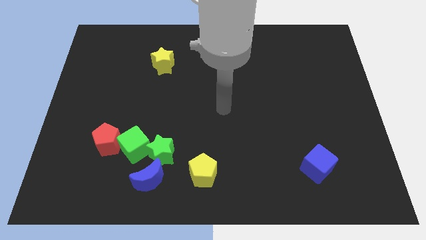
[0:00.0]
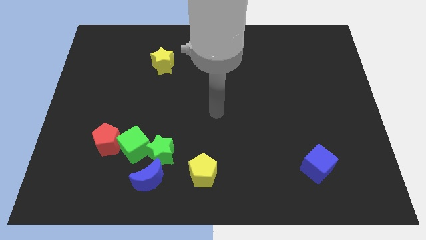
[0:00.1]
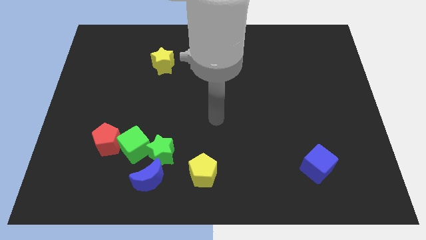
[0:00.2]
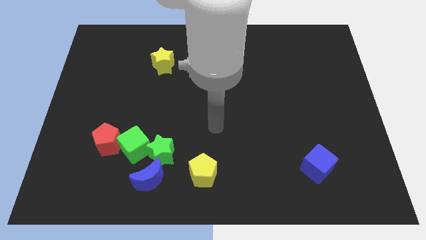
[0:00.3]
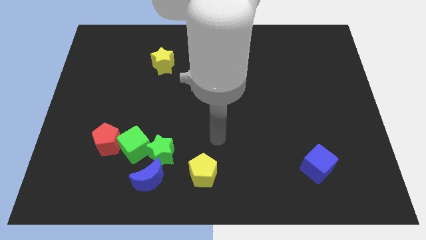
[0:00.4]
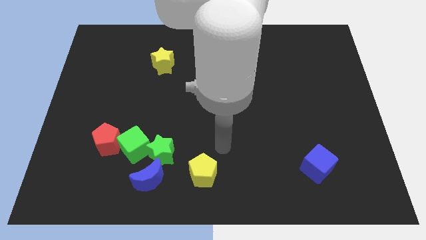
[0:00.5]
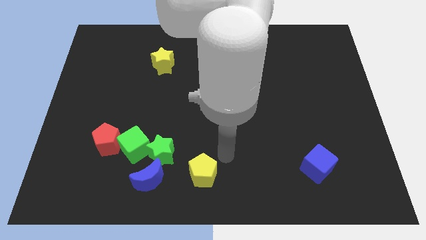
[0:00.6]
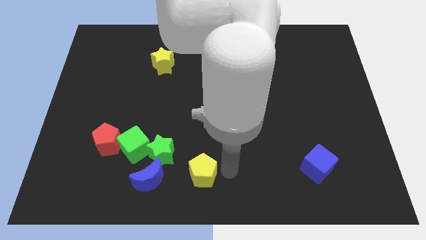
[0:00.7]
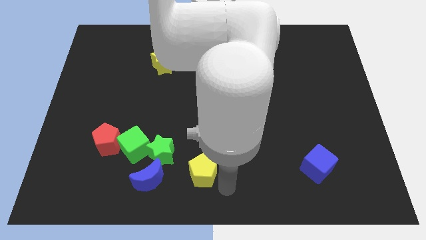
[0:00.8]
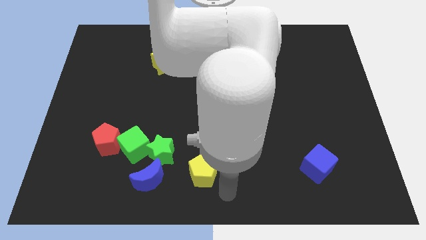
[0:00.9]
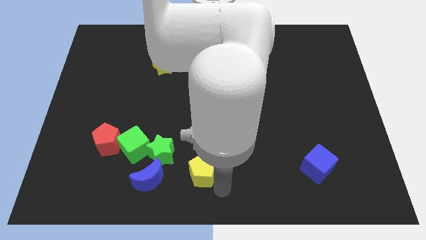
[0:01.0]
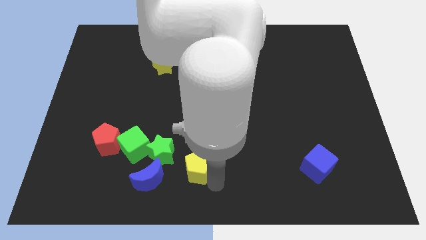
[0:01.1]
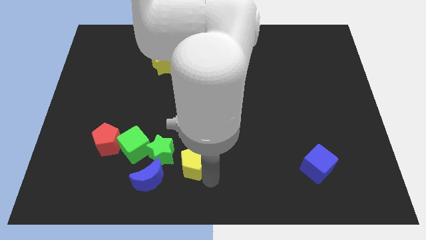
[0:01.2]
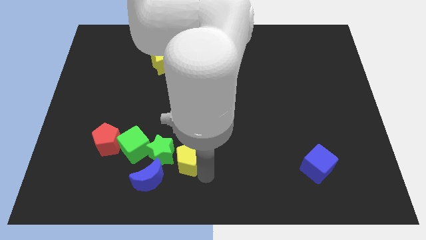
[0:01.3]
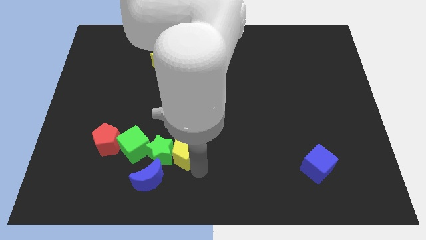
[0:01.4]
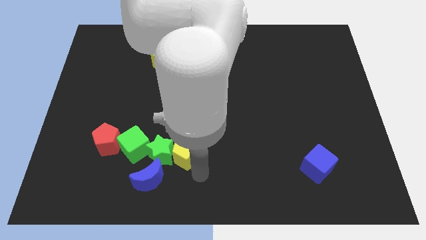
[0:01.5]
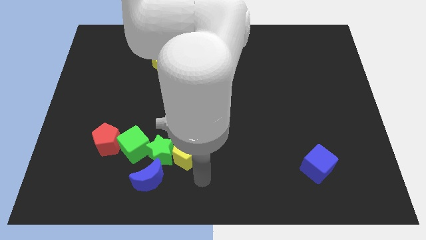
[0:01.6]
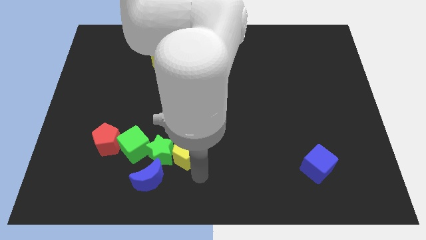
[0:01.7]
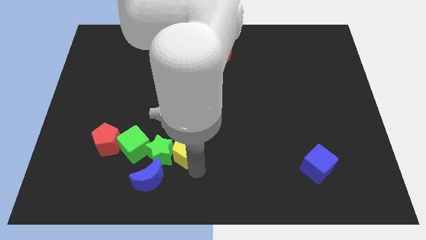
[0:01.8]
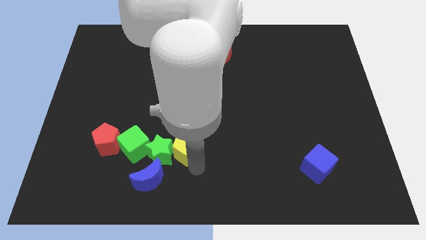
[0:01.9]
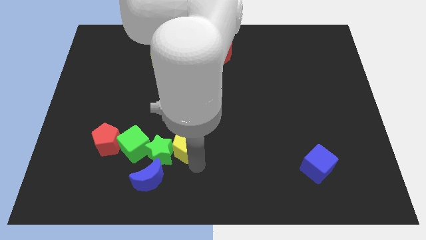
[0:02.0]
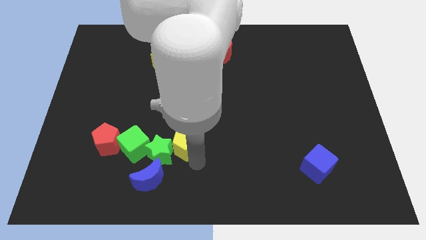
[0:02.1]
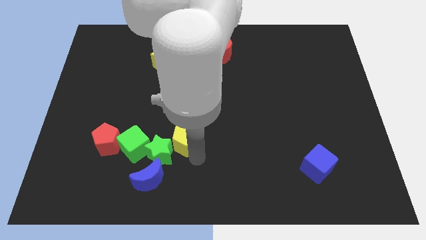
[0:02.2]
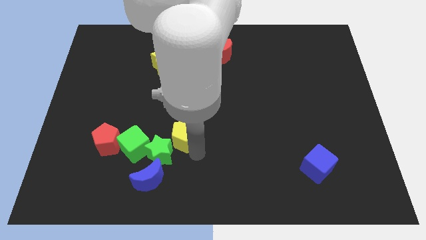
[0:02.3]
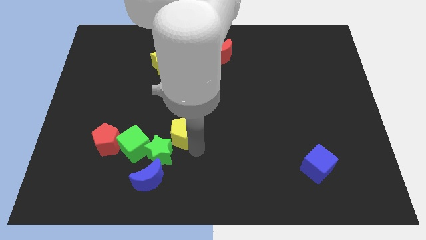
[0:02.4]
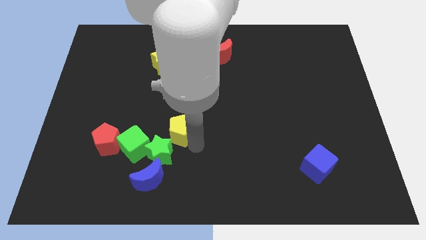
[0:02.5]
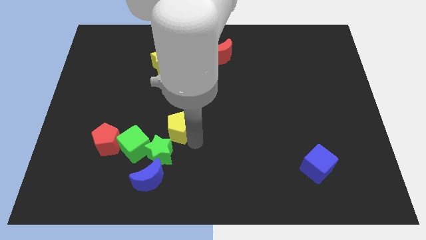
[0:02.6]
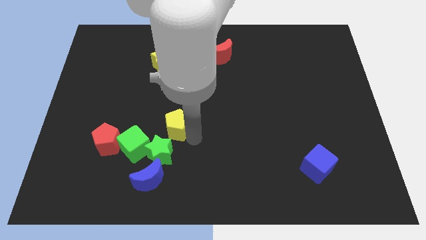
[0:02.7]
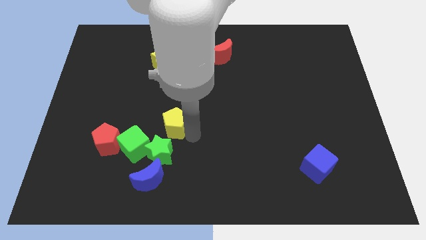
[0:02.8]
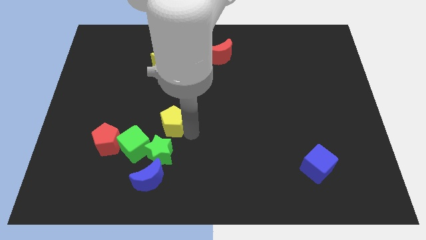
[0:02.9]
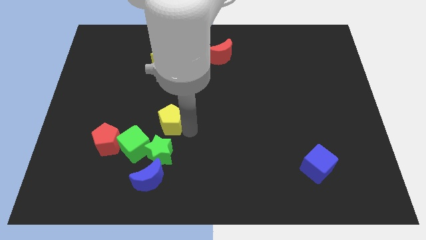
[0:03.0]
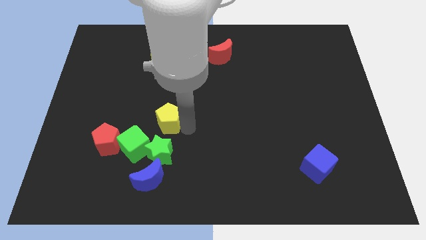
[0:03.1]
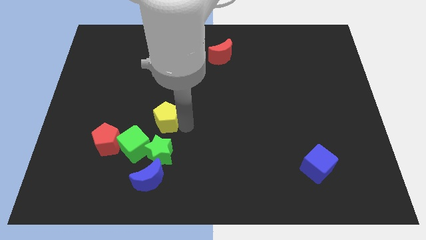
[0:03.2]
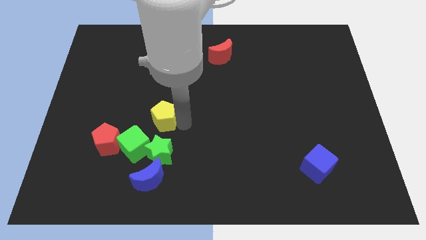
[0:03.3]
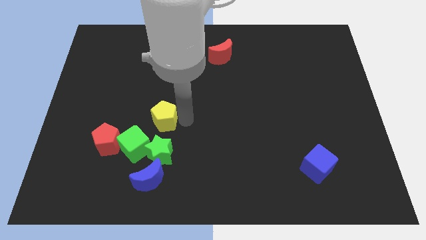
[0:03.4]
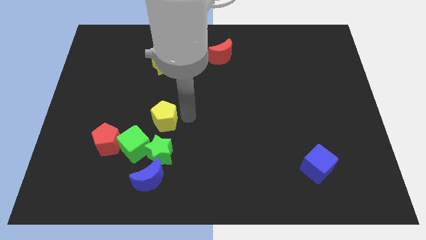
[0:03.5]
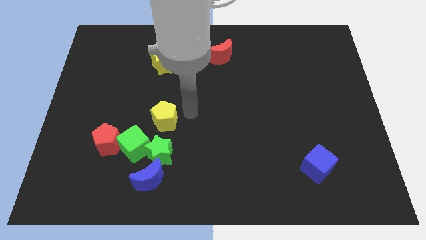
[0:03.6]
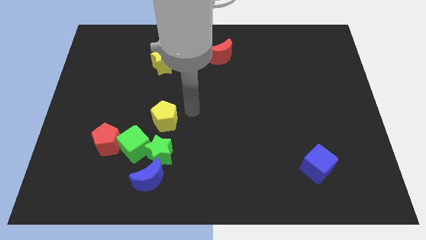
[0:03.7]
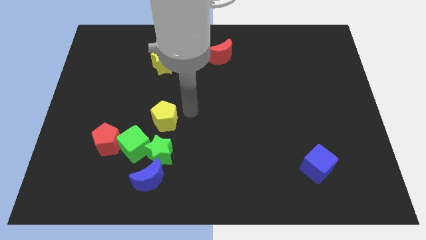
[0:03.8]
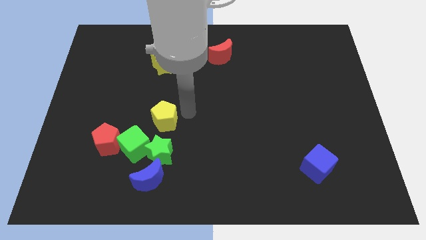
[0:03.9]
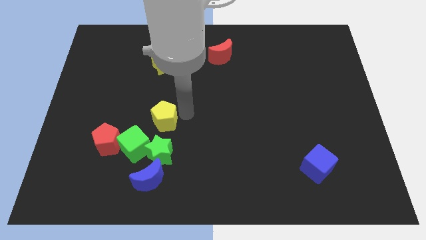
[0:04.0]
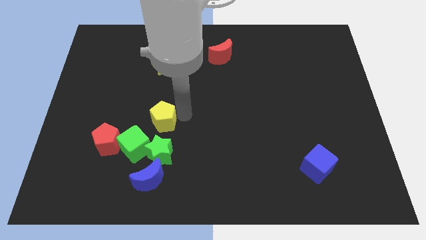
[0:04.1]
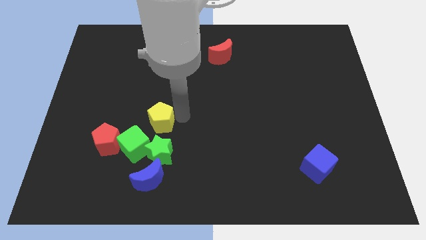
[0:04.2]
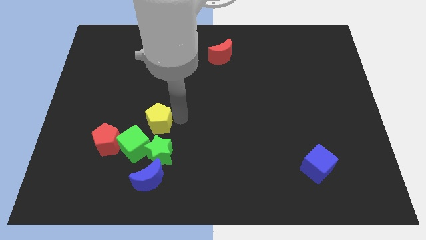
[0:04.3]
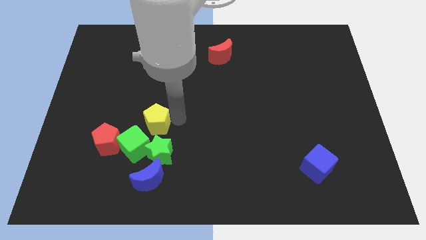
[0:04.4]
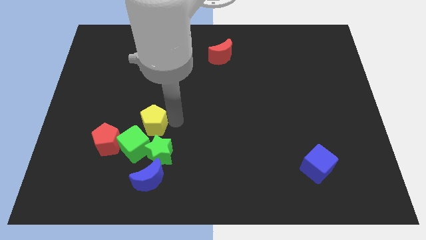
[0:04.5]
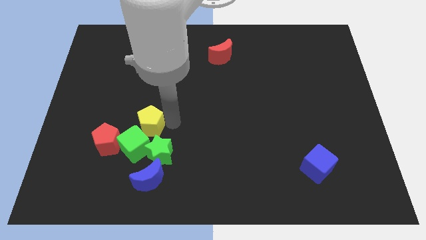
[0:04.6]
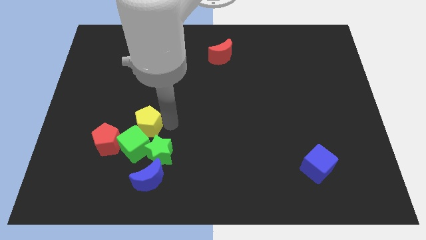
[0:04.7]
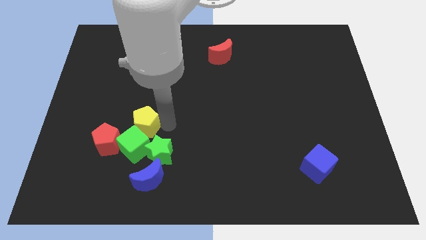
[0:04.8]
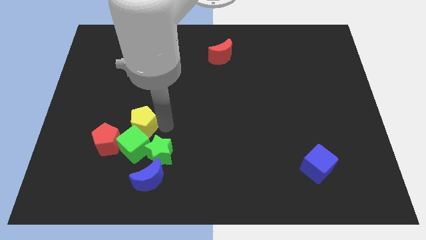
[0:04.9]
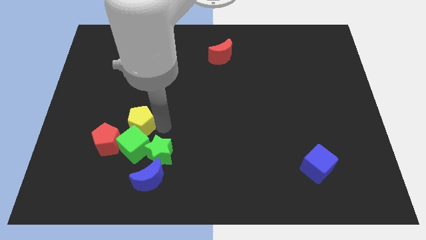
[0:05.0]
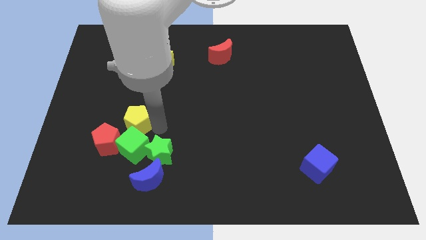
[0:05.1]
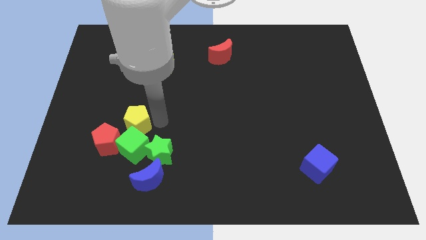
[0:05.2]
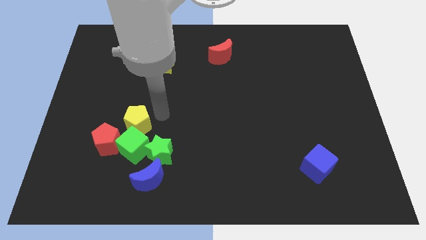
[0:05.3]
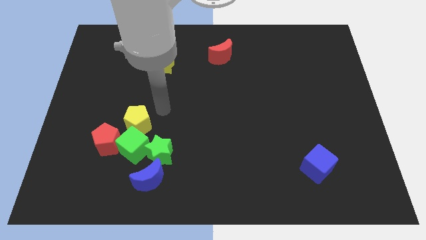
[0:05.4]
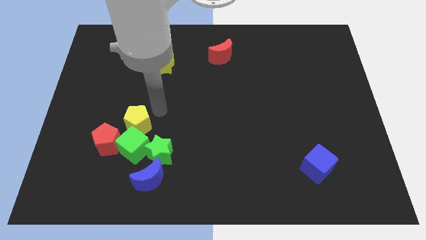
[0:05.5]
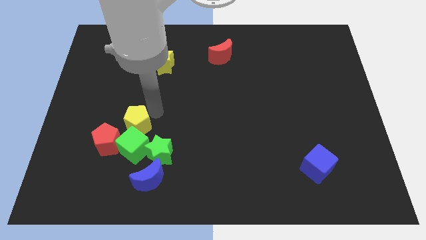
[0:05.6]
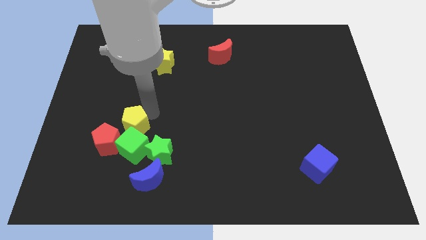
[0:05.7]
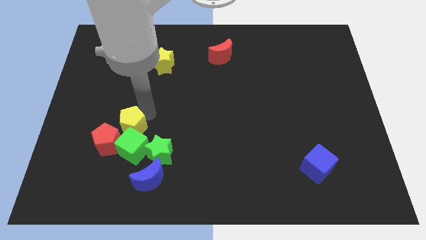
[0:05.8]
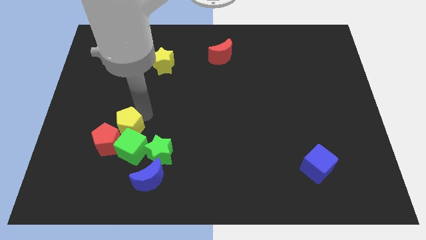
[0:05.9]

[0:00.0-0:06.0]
slide the yellow pentagon close to the red pentagon

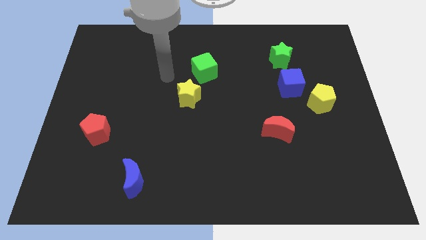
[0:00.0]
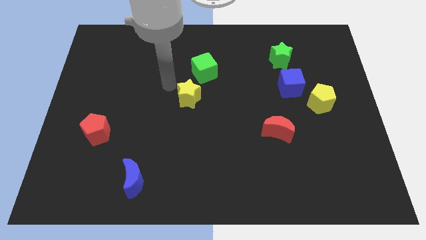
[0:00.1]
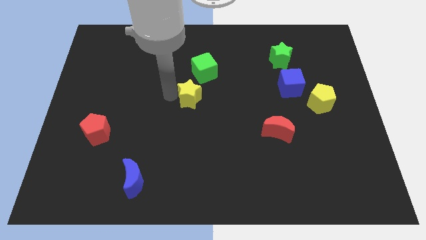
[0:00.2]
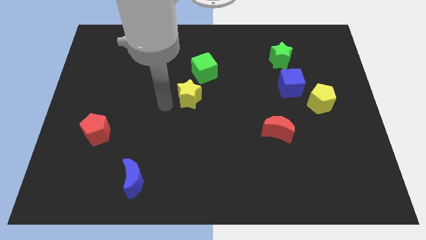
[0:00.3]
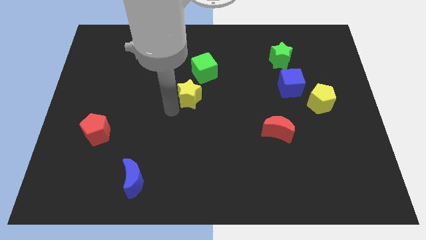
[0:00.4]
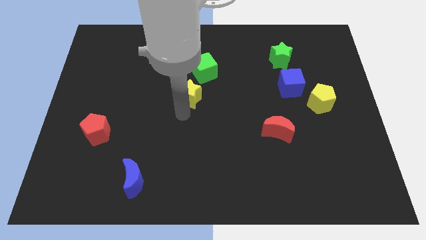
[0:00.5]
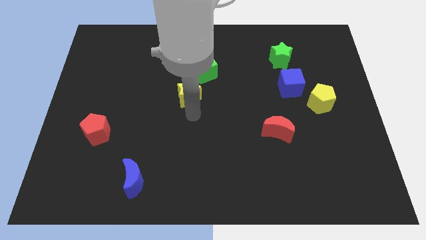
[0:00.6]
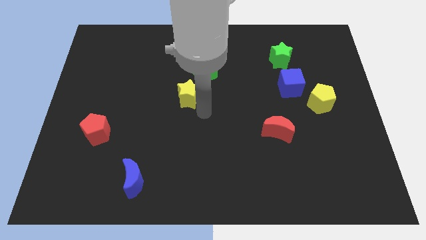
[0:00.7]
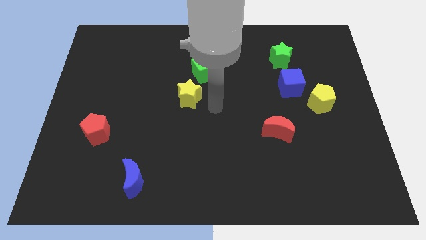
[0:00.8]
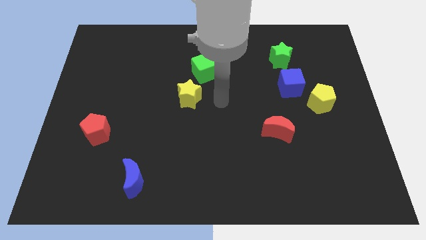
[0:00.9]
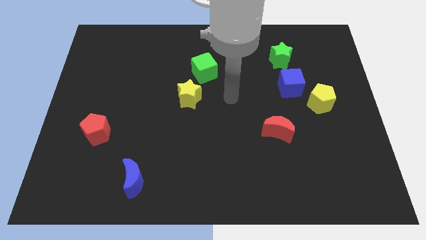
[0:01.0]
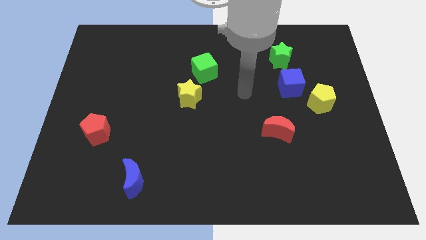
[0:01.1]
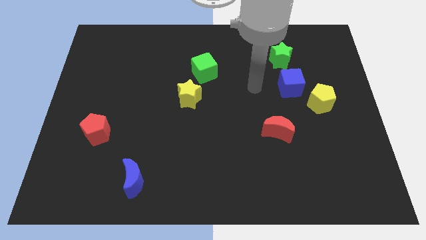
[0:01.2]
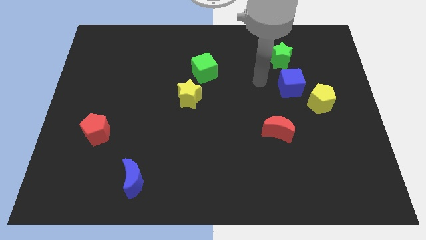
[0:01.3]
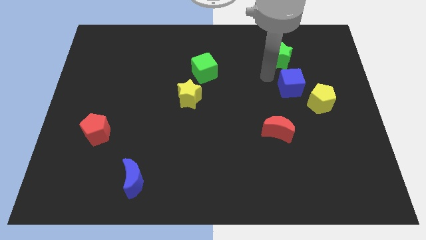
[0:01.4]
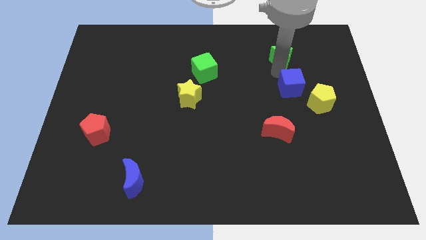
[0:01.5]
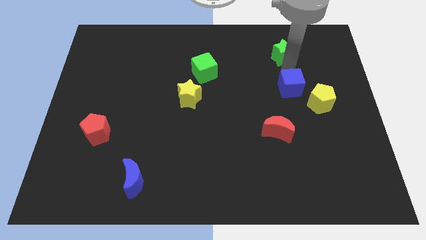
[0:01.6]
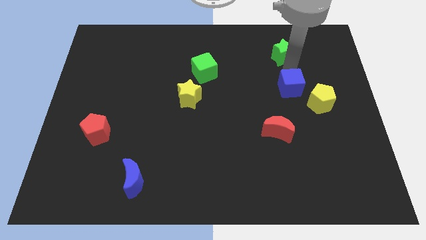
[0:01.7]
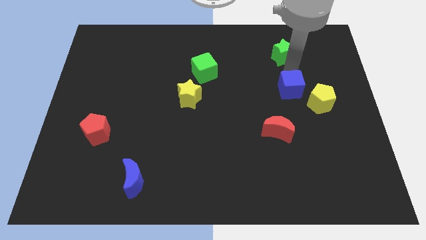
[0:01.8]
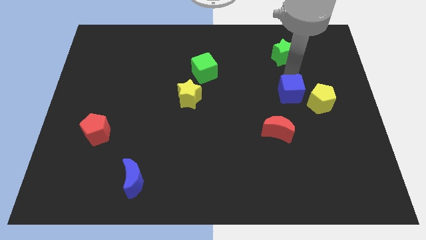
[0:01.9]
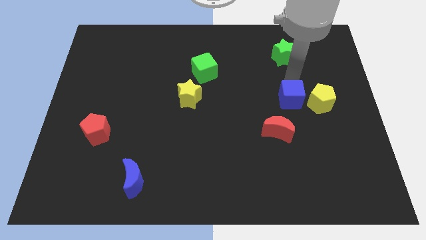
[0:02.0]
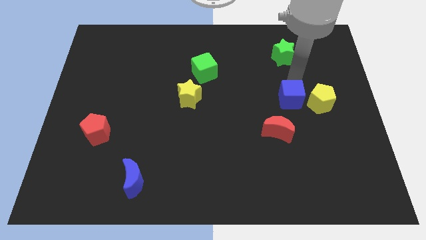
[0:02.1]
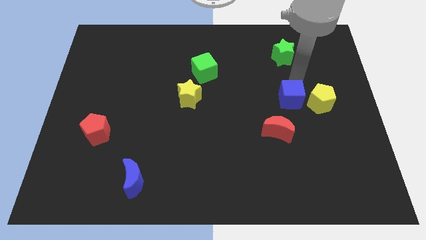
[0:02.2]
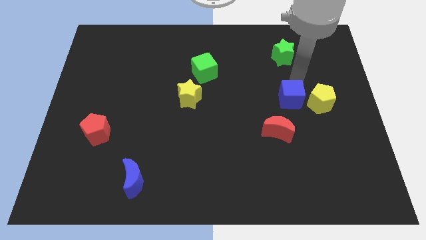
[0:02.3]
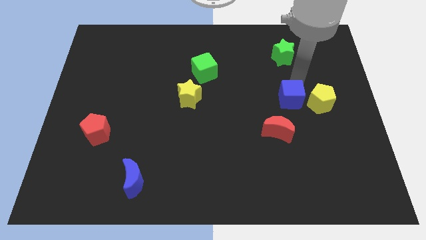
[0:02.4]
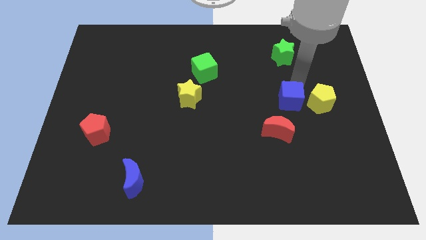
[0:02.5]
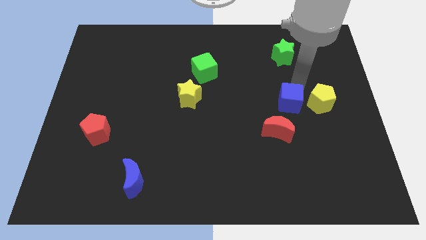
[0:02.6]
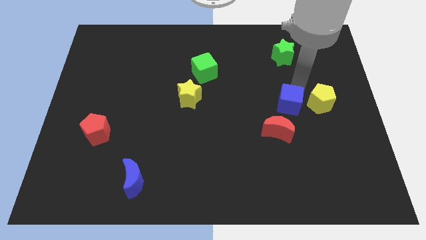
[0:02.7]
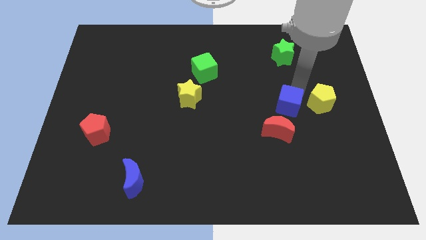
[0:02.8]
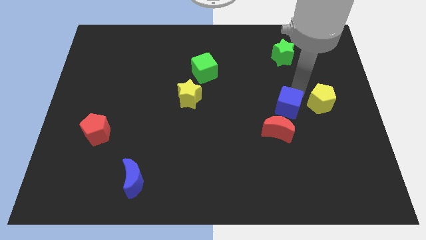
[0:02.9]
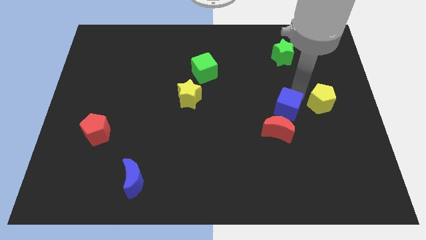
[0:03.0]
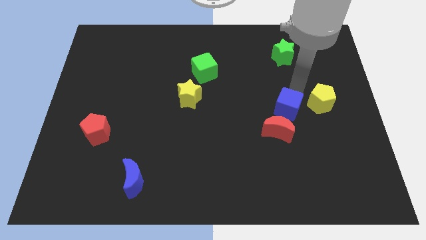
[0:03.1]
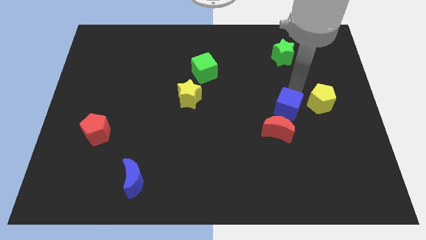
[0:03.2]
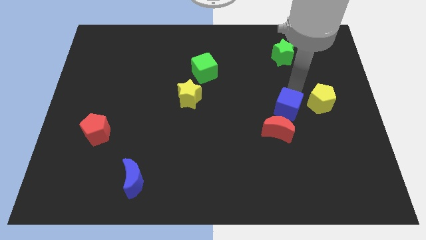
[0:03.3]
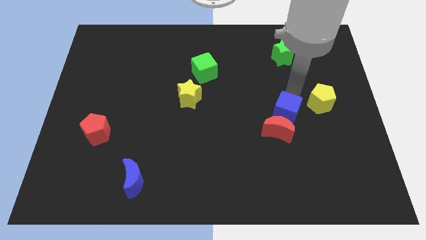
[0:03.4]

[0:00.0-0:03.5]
push the blue cube close to the red moon
